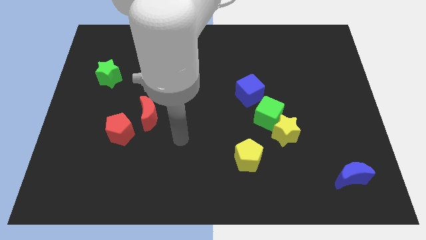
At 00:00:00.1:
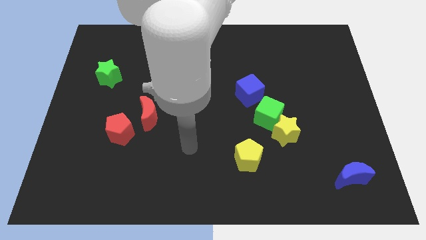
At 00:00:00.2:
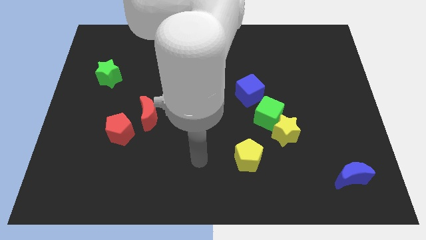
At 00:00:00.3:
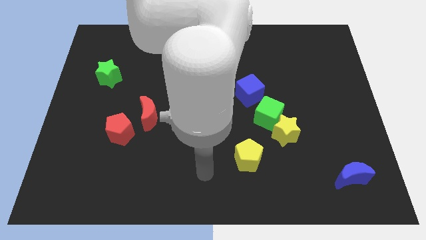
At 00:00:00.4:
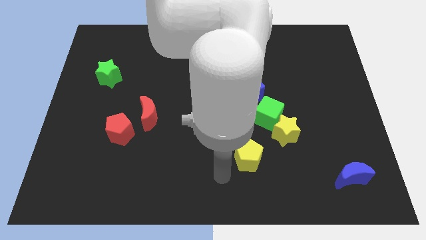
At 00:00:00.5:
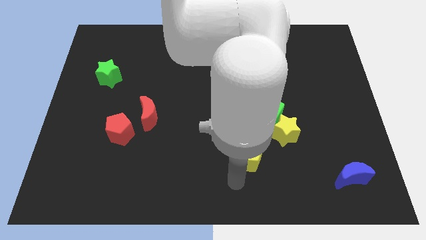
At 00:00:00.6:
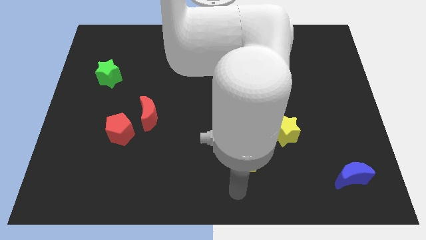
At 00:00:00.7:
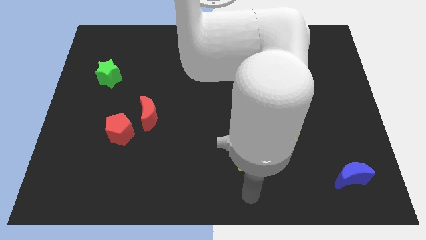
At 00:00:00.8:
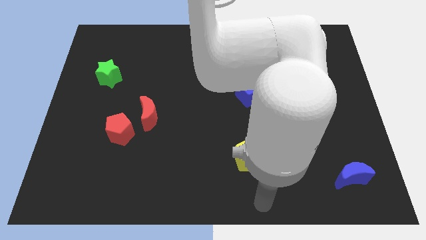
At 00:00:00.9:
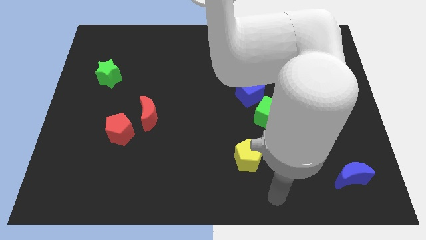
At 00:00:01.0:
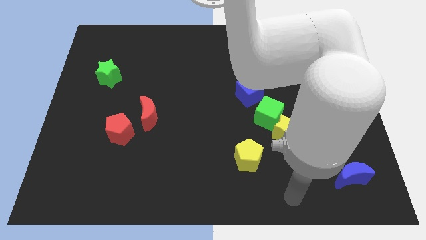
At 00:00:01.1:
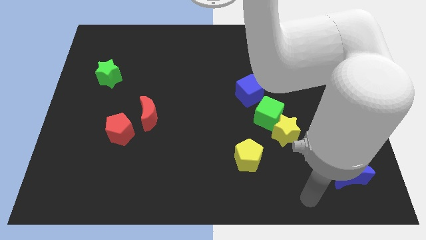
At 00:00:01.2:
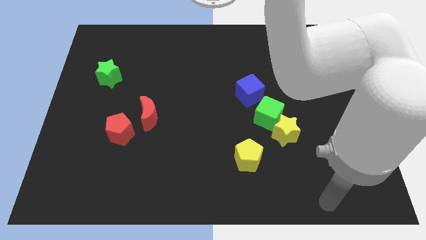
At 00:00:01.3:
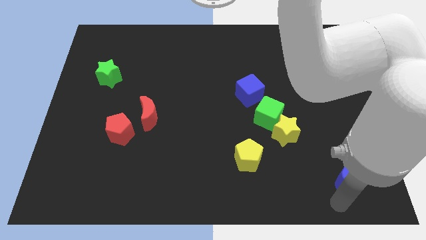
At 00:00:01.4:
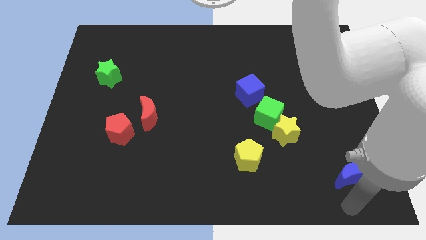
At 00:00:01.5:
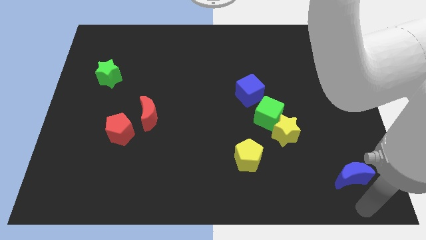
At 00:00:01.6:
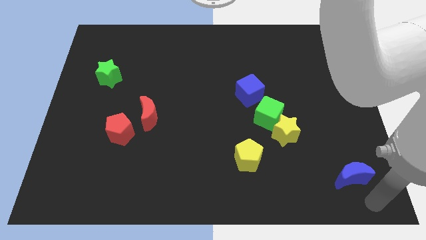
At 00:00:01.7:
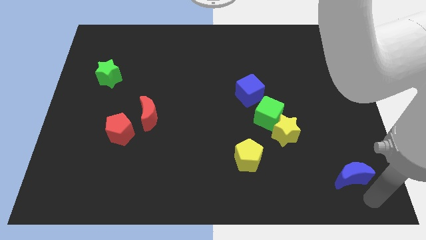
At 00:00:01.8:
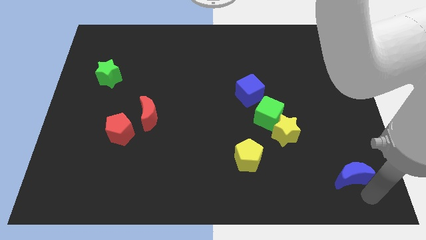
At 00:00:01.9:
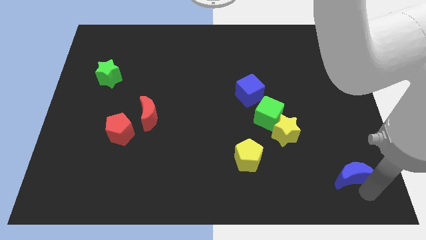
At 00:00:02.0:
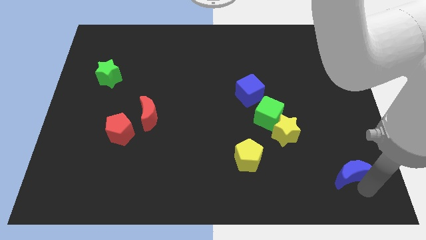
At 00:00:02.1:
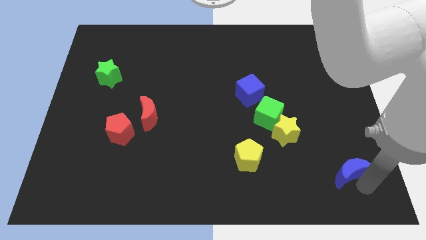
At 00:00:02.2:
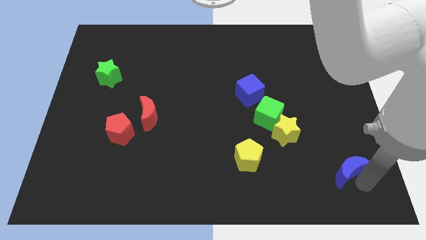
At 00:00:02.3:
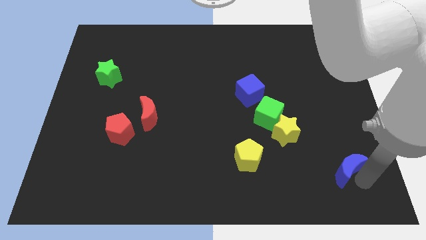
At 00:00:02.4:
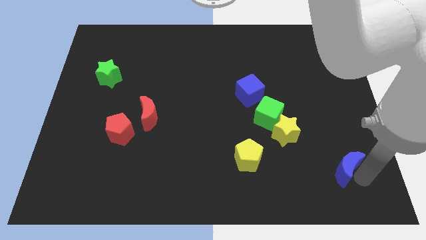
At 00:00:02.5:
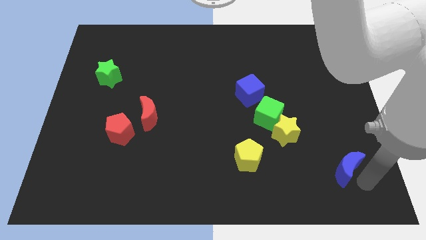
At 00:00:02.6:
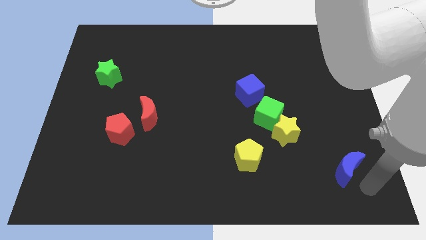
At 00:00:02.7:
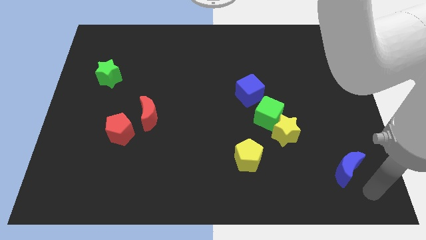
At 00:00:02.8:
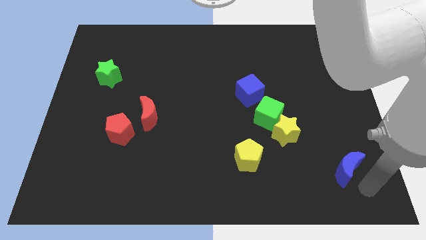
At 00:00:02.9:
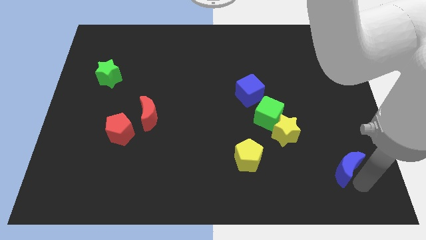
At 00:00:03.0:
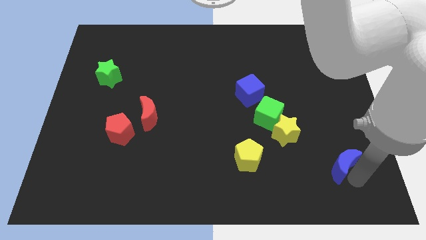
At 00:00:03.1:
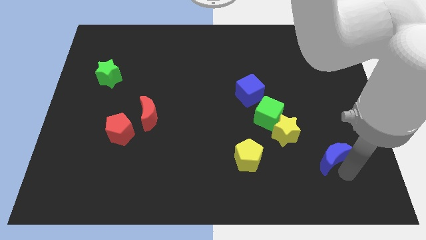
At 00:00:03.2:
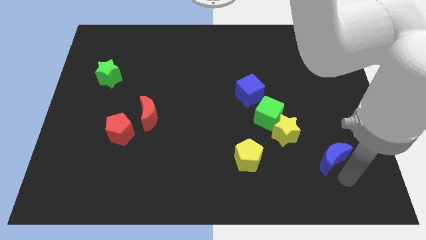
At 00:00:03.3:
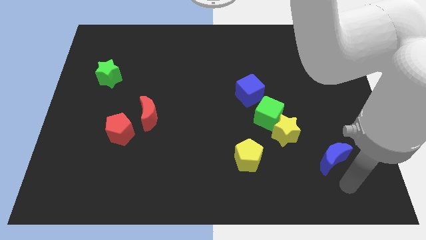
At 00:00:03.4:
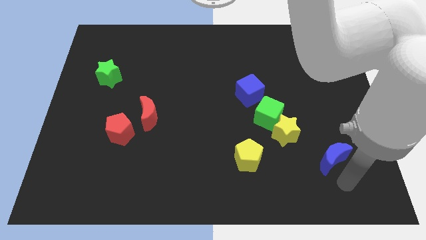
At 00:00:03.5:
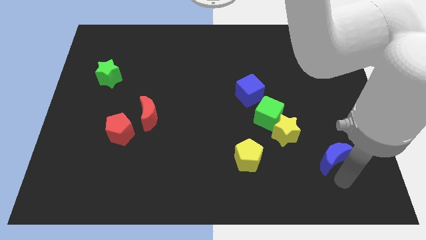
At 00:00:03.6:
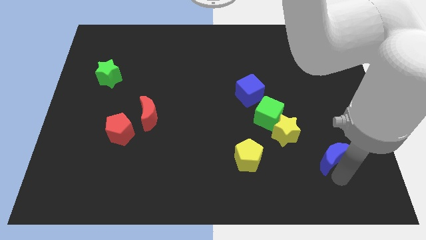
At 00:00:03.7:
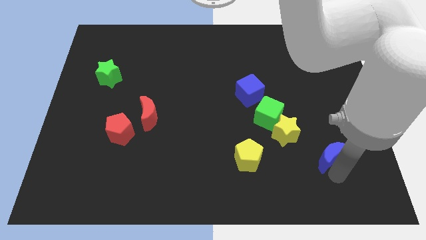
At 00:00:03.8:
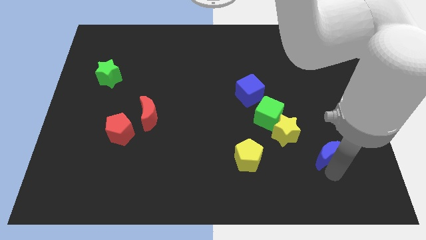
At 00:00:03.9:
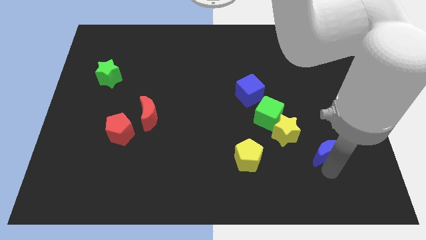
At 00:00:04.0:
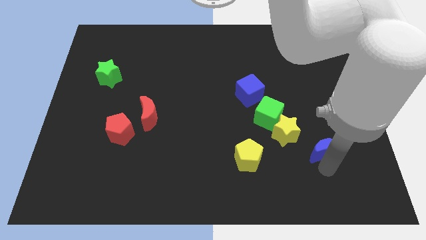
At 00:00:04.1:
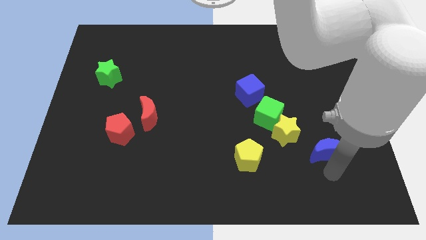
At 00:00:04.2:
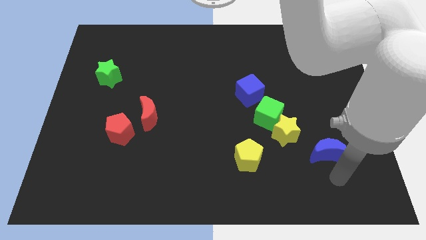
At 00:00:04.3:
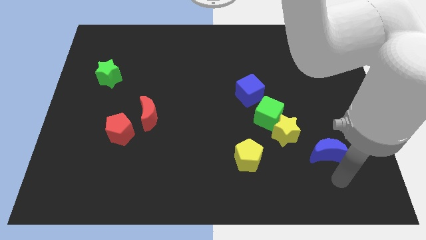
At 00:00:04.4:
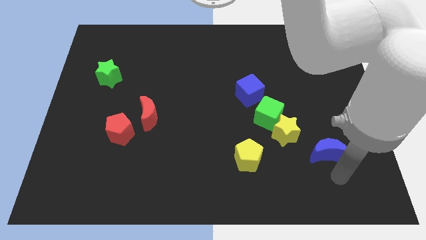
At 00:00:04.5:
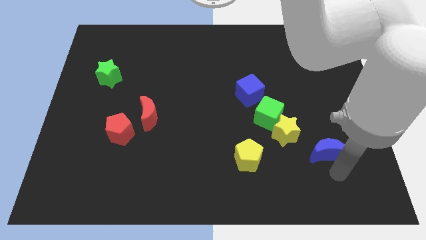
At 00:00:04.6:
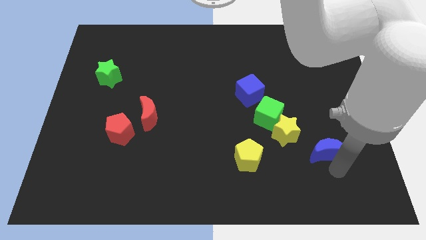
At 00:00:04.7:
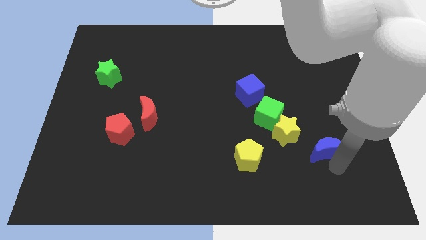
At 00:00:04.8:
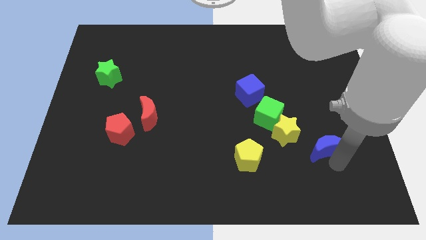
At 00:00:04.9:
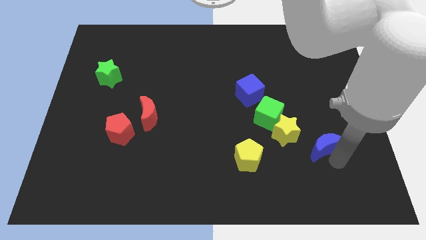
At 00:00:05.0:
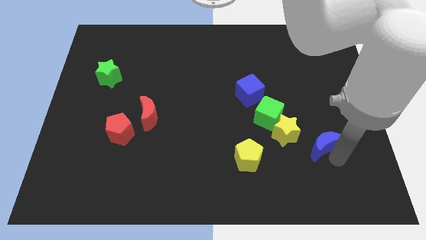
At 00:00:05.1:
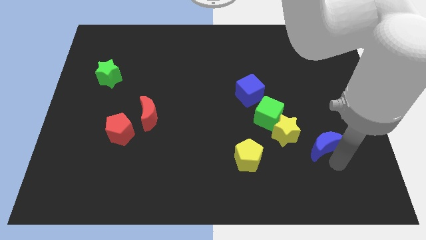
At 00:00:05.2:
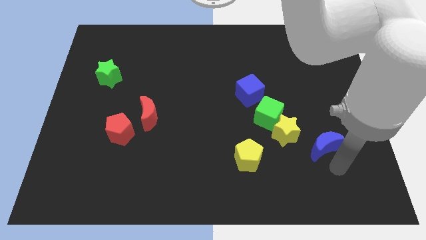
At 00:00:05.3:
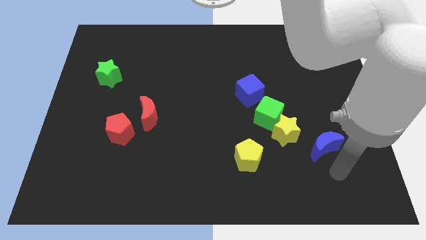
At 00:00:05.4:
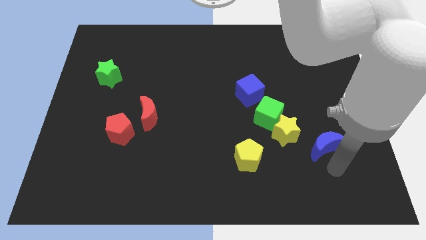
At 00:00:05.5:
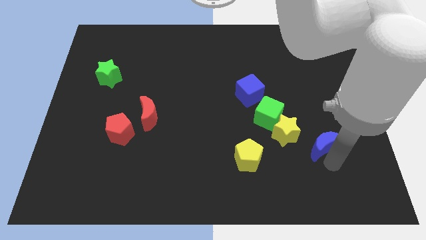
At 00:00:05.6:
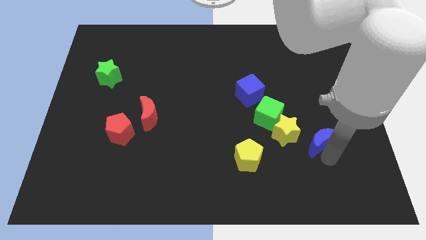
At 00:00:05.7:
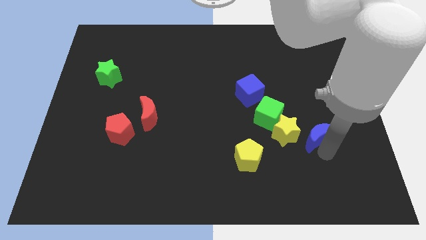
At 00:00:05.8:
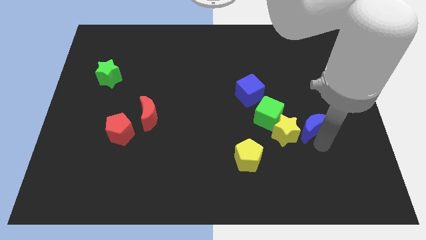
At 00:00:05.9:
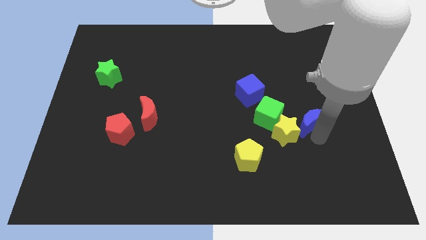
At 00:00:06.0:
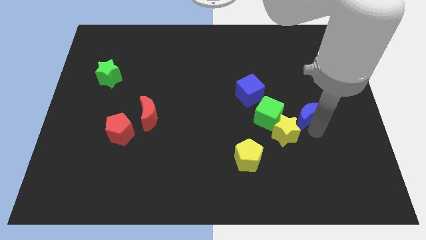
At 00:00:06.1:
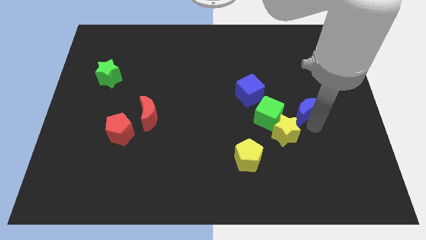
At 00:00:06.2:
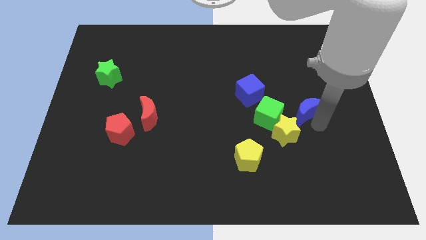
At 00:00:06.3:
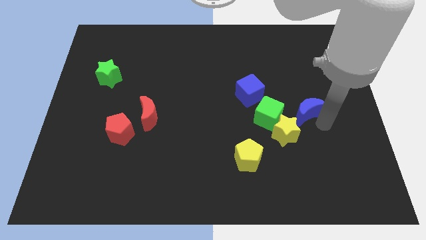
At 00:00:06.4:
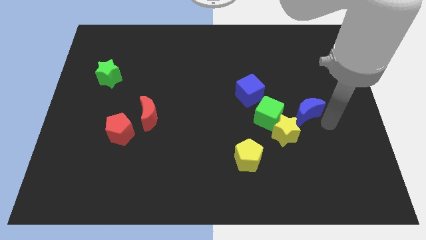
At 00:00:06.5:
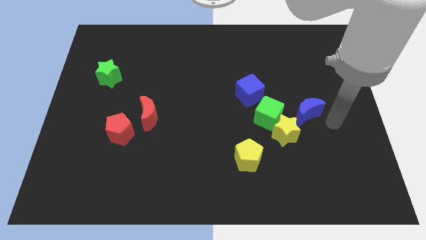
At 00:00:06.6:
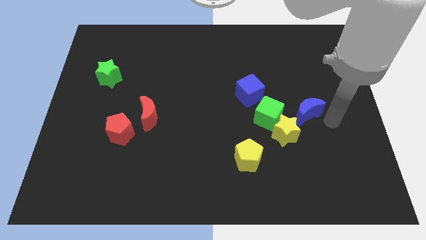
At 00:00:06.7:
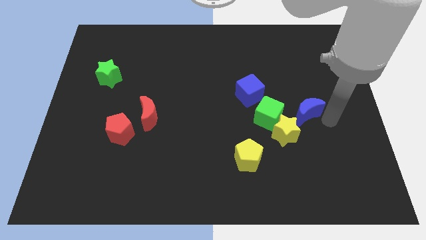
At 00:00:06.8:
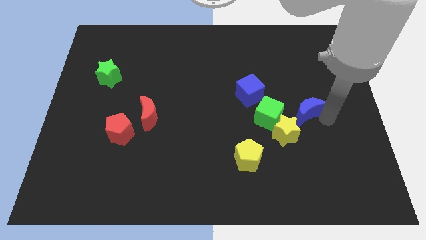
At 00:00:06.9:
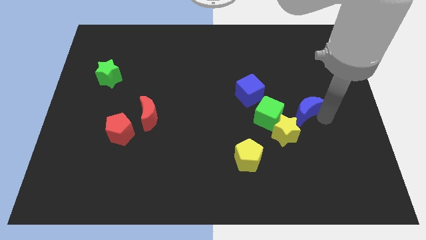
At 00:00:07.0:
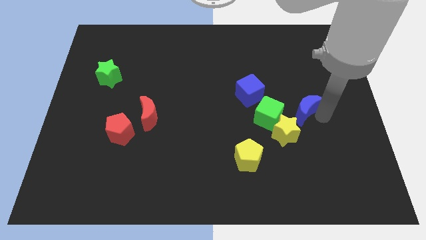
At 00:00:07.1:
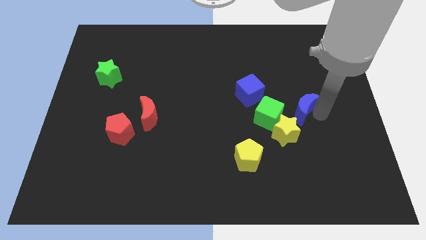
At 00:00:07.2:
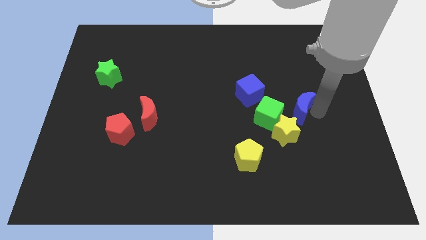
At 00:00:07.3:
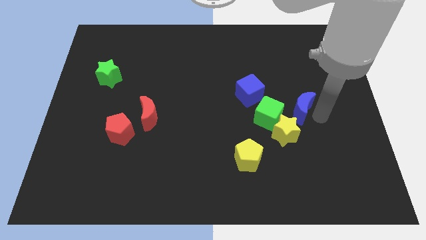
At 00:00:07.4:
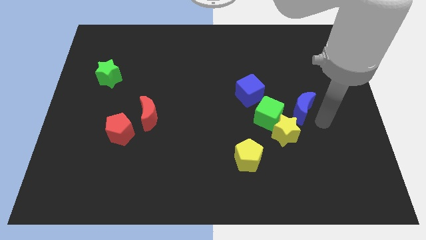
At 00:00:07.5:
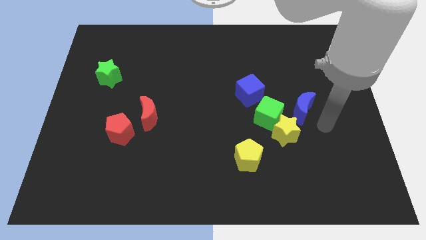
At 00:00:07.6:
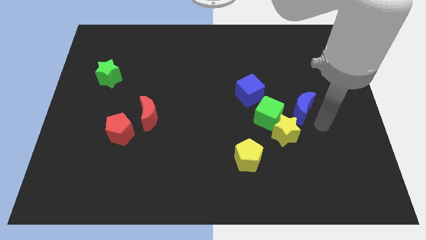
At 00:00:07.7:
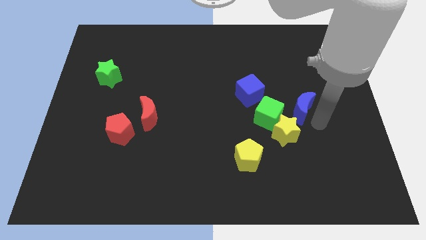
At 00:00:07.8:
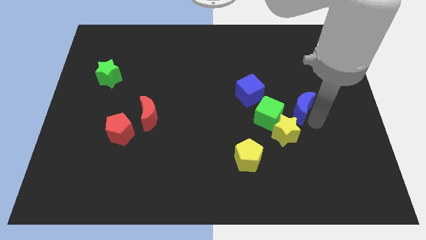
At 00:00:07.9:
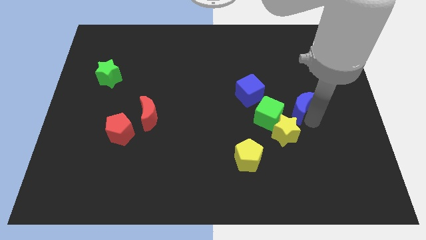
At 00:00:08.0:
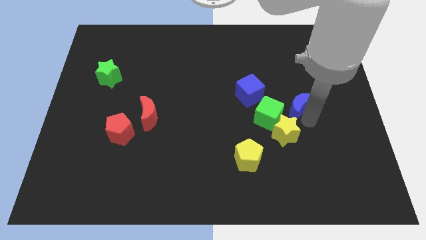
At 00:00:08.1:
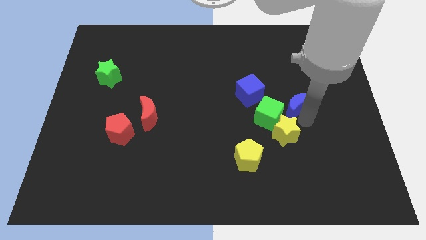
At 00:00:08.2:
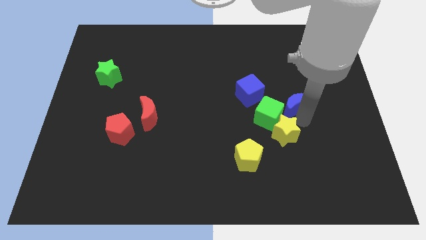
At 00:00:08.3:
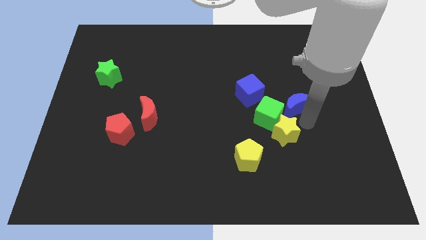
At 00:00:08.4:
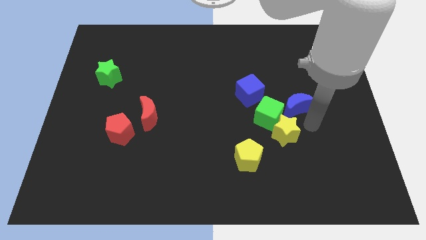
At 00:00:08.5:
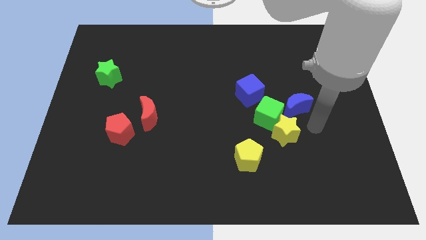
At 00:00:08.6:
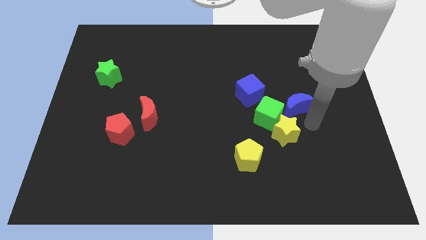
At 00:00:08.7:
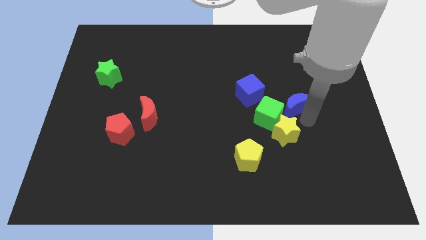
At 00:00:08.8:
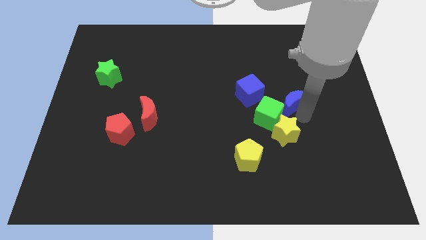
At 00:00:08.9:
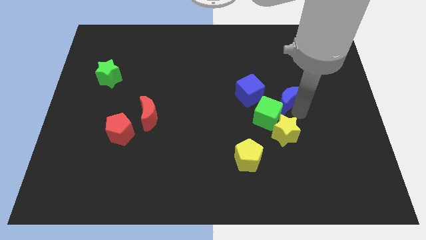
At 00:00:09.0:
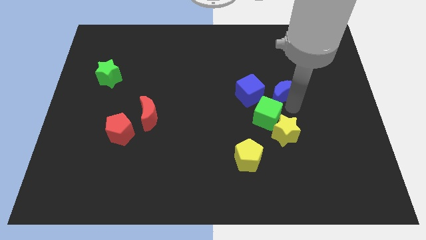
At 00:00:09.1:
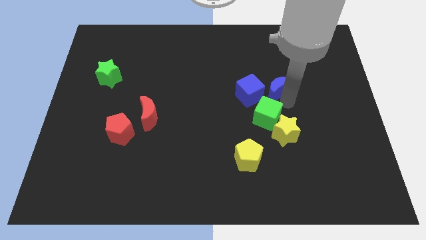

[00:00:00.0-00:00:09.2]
push the blue moon to the top right side of the blue cube
